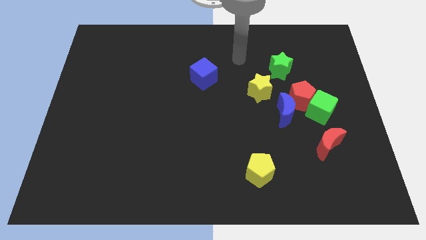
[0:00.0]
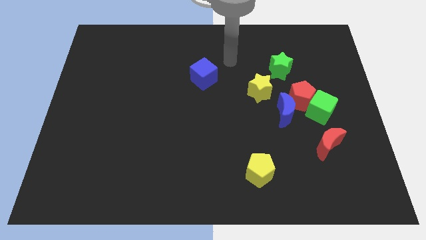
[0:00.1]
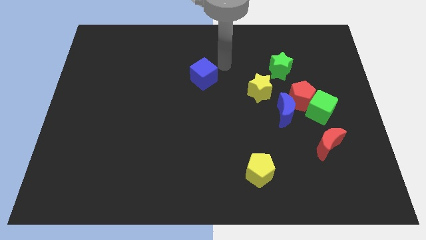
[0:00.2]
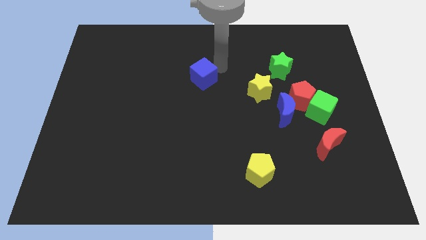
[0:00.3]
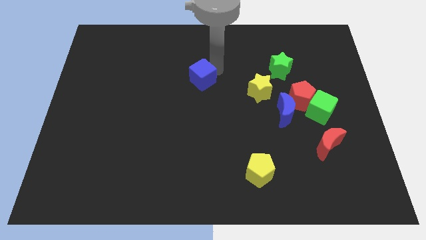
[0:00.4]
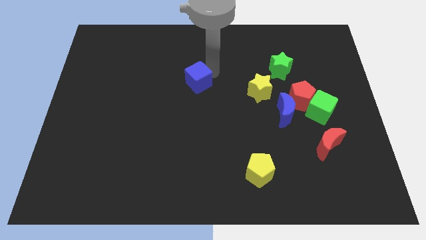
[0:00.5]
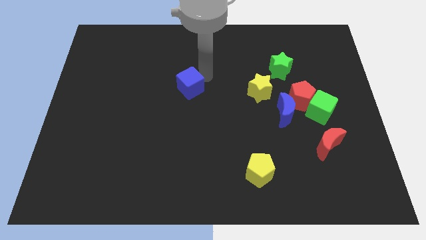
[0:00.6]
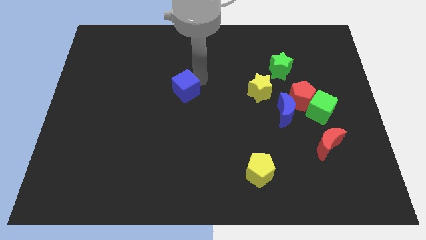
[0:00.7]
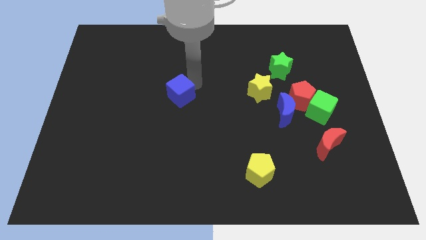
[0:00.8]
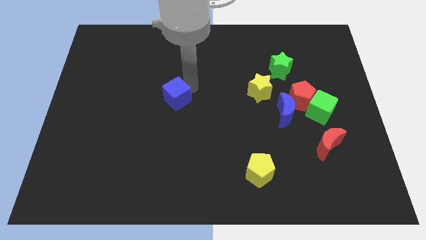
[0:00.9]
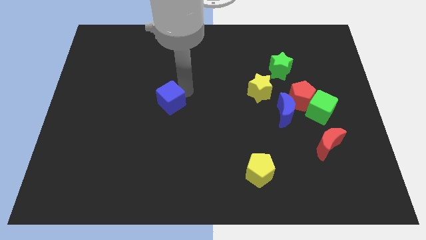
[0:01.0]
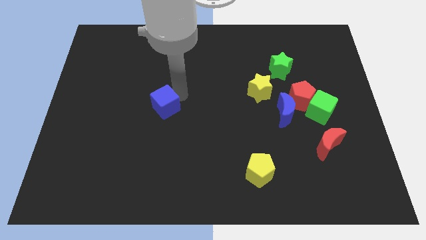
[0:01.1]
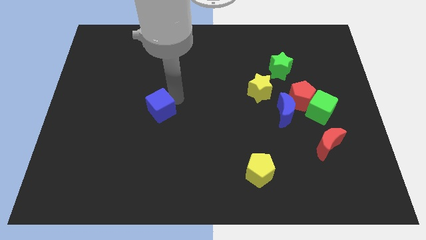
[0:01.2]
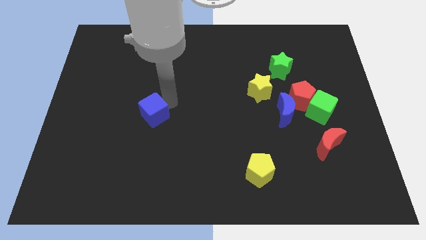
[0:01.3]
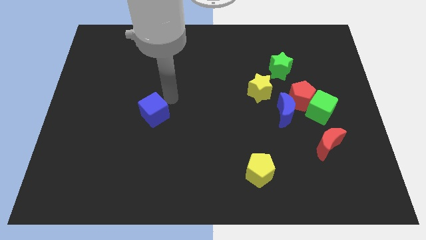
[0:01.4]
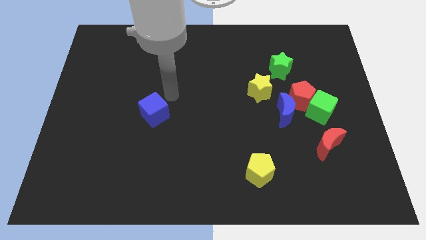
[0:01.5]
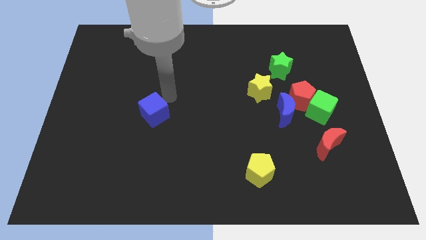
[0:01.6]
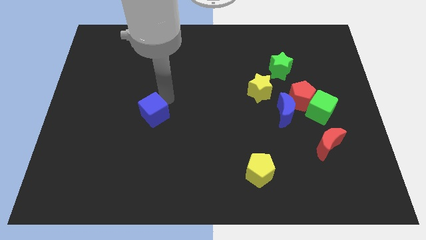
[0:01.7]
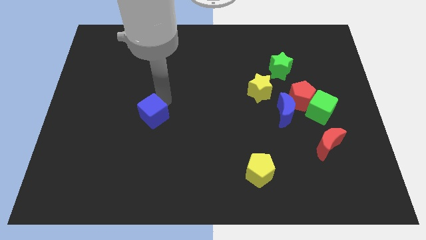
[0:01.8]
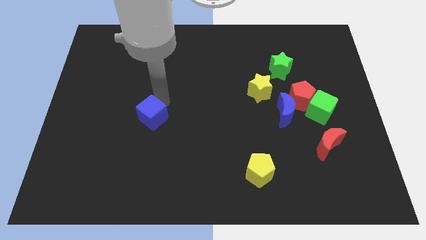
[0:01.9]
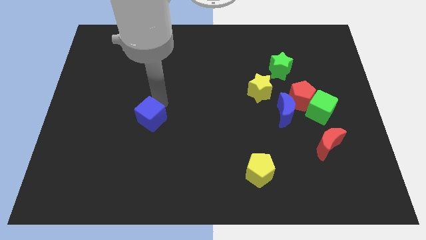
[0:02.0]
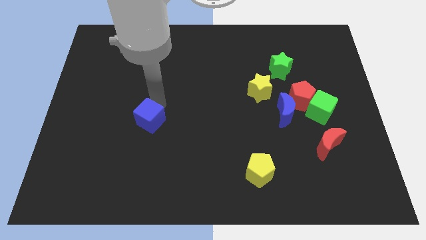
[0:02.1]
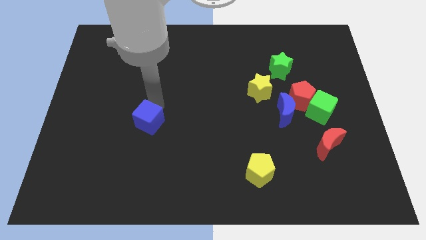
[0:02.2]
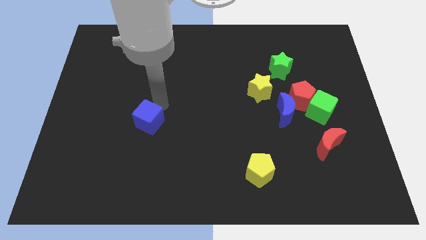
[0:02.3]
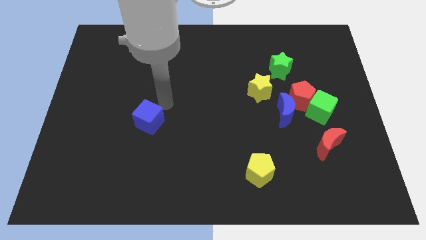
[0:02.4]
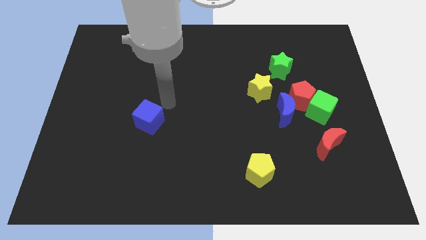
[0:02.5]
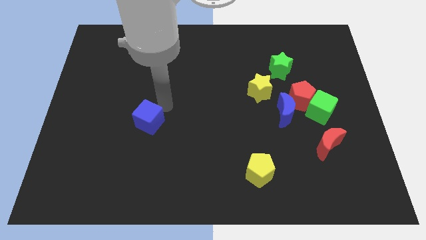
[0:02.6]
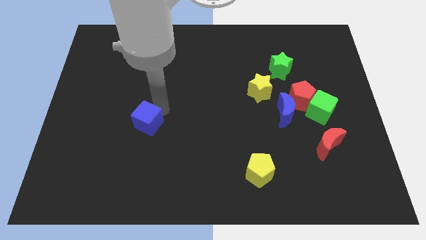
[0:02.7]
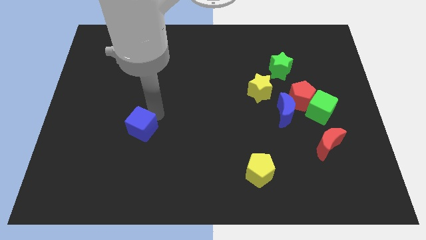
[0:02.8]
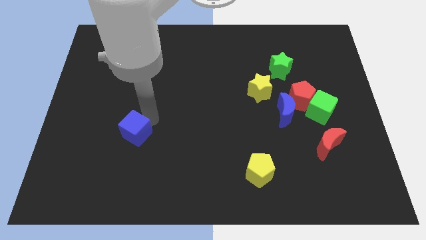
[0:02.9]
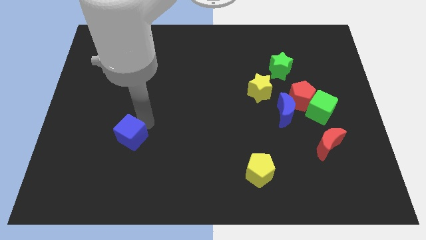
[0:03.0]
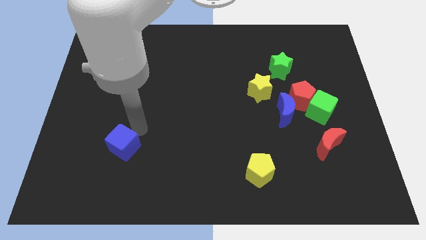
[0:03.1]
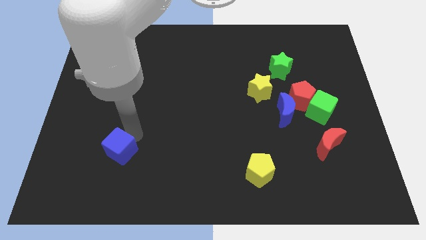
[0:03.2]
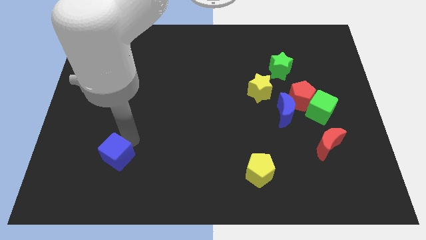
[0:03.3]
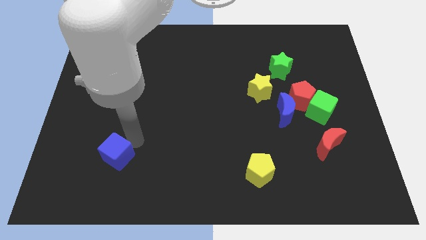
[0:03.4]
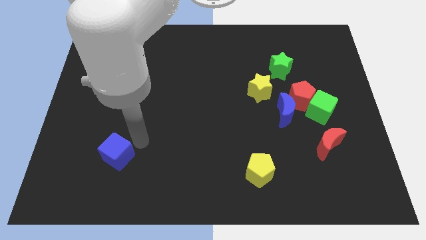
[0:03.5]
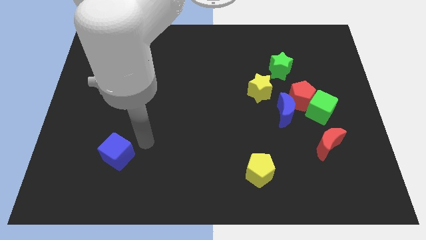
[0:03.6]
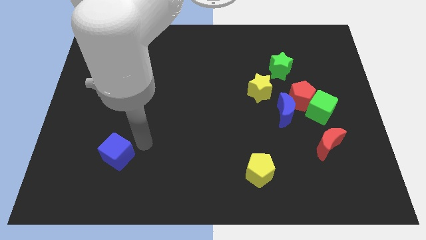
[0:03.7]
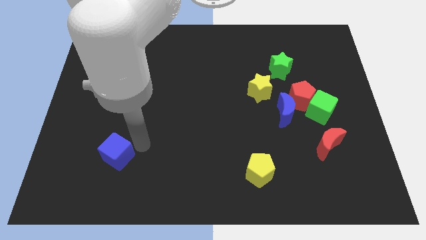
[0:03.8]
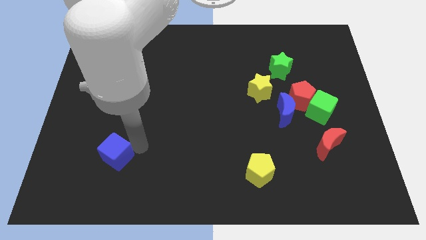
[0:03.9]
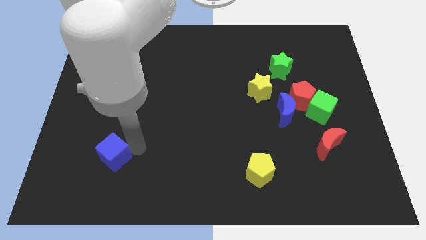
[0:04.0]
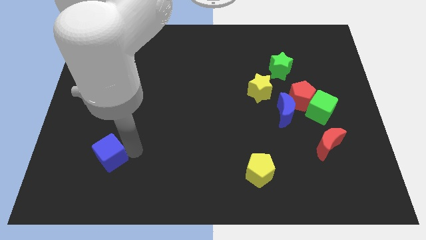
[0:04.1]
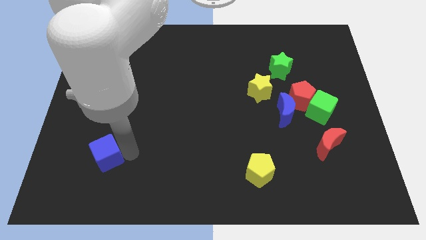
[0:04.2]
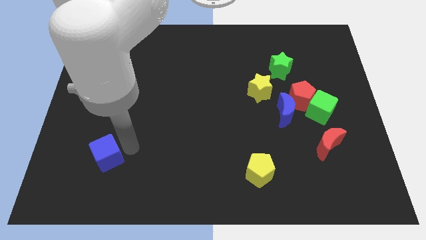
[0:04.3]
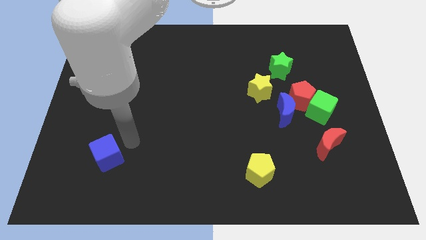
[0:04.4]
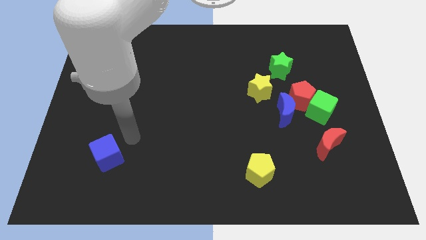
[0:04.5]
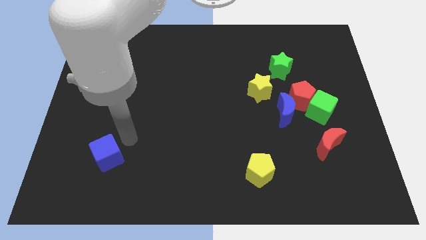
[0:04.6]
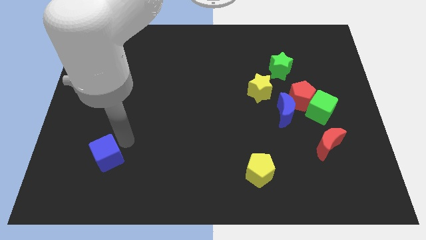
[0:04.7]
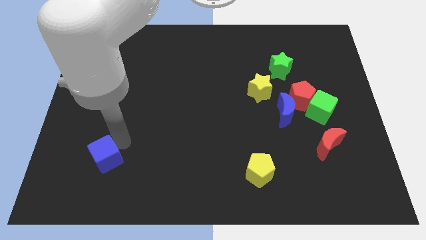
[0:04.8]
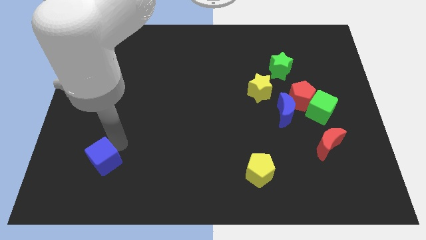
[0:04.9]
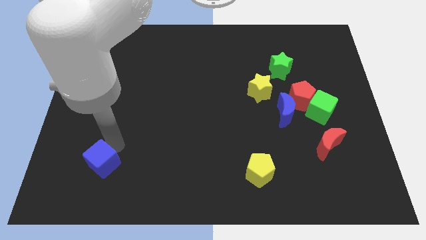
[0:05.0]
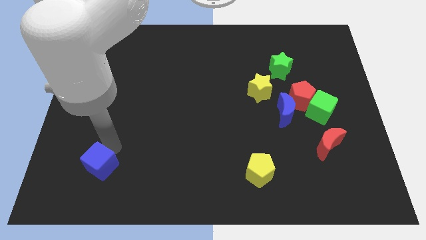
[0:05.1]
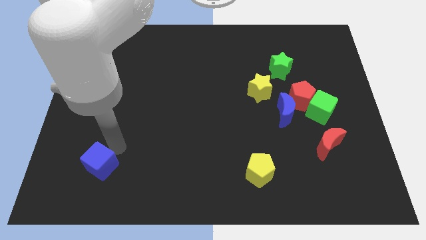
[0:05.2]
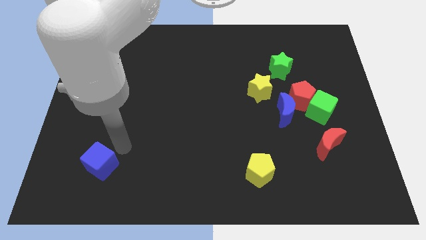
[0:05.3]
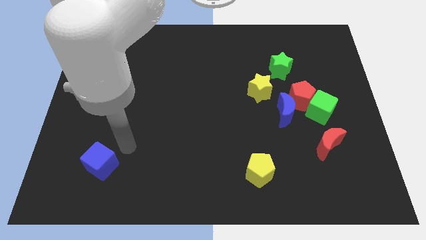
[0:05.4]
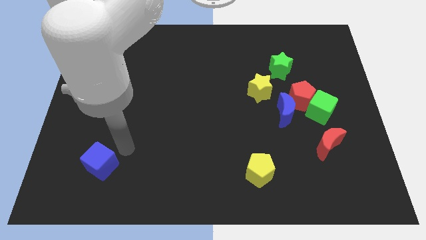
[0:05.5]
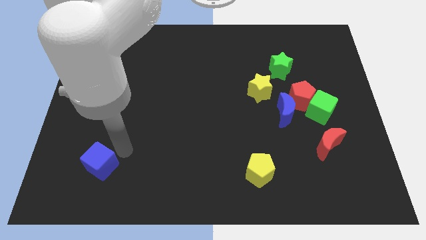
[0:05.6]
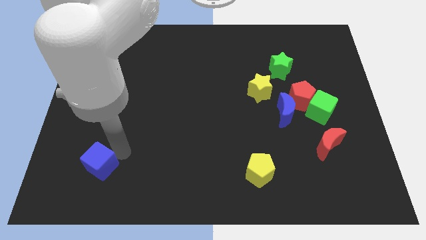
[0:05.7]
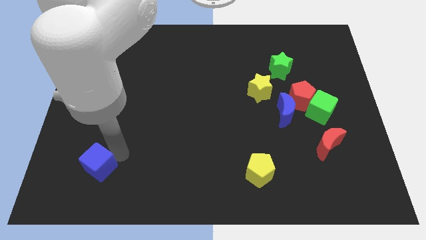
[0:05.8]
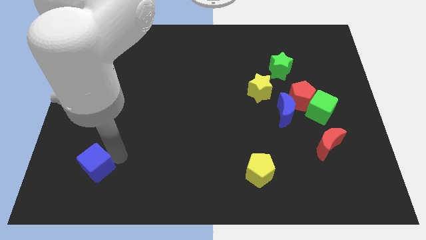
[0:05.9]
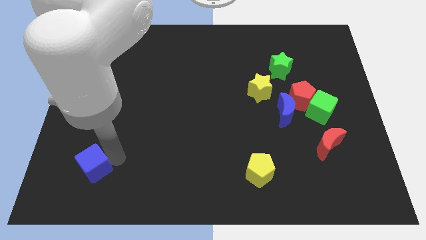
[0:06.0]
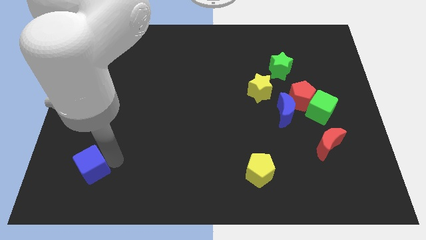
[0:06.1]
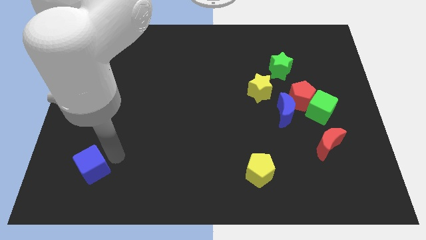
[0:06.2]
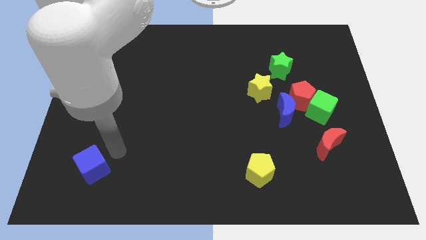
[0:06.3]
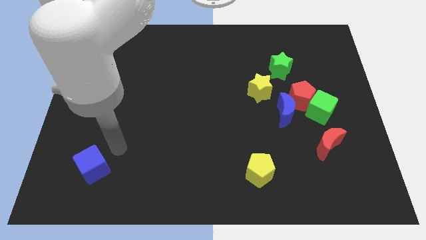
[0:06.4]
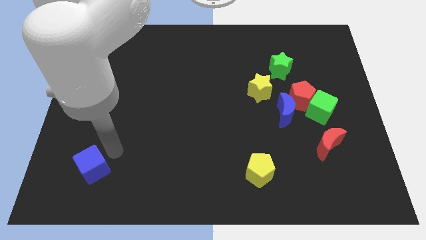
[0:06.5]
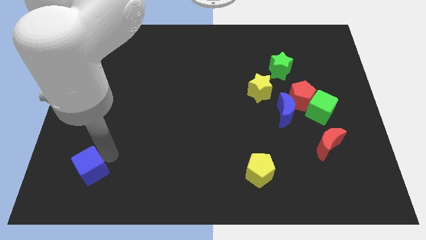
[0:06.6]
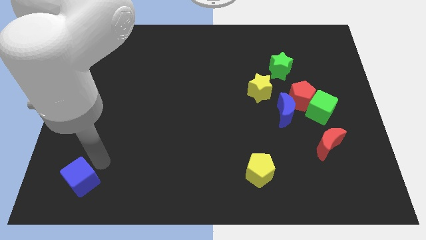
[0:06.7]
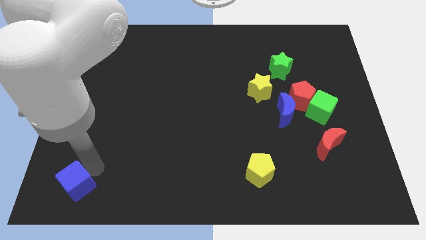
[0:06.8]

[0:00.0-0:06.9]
slide the blue cube to the bottom left corner

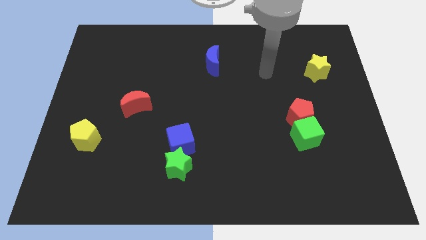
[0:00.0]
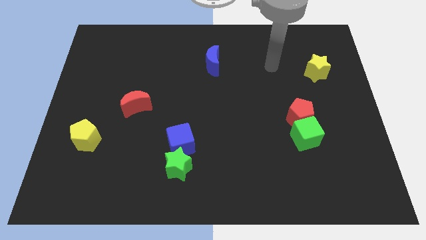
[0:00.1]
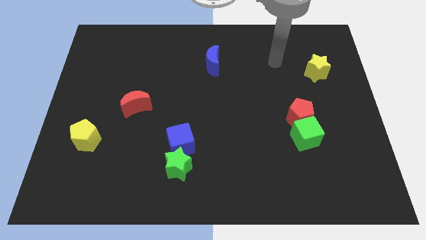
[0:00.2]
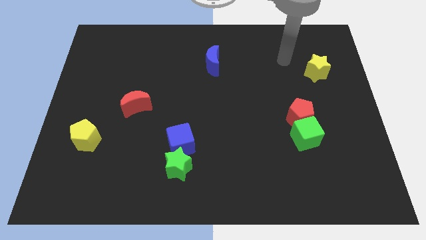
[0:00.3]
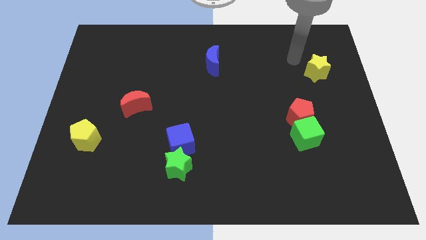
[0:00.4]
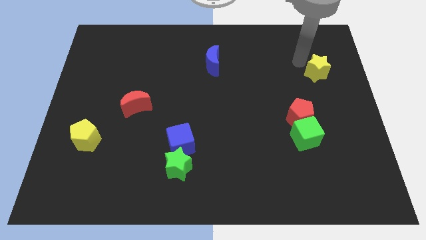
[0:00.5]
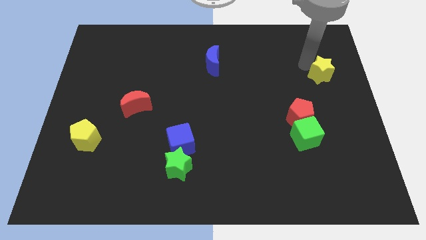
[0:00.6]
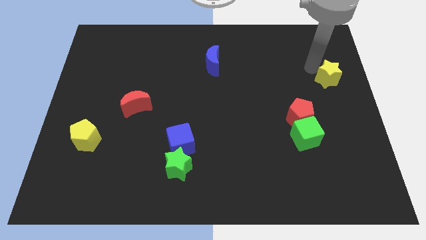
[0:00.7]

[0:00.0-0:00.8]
slide the yellow star to the right side of the board
